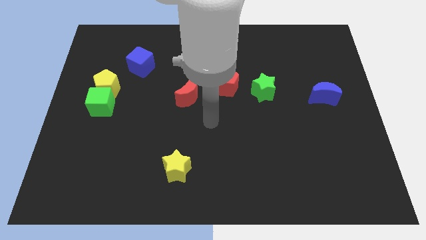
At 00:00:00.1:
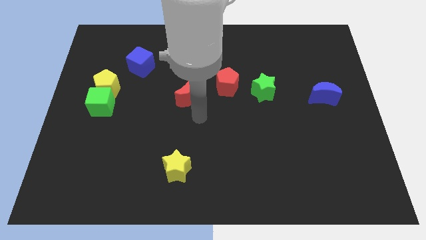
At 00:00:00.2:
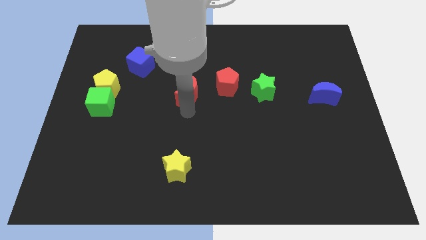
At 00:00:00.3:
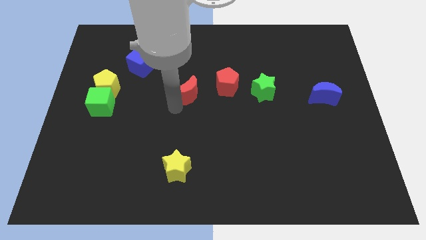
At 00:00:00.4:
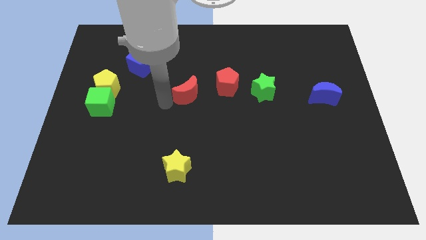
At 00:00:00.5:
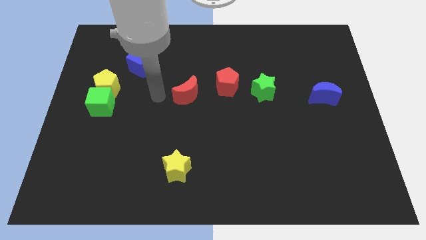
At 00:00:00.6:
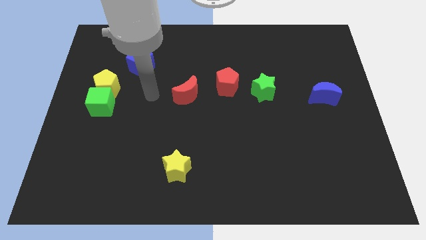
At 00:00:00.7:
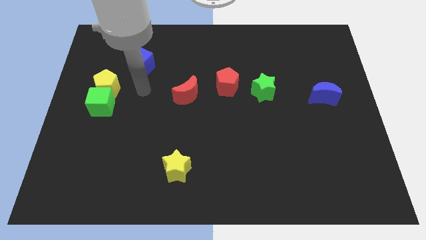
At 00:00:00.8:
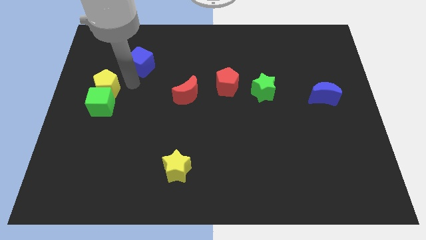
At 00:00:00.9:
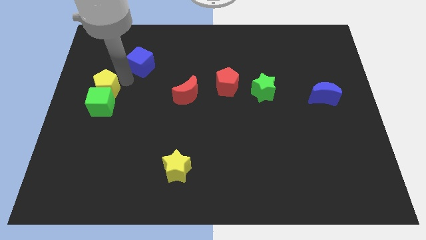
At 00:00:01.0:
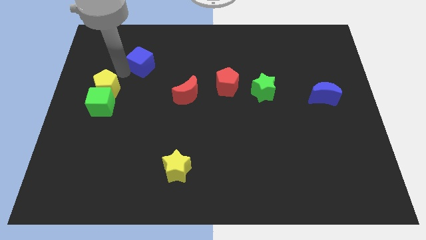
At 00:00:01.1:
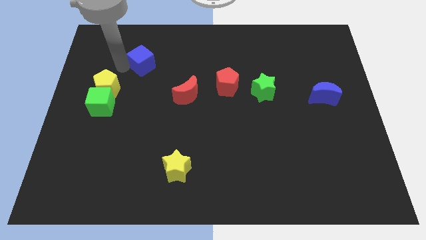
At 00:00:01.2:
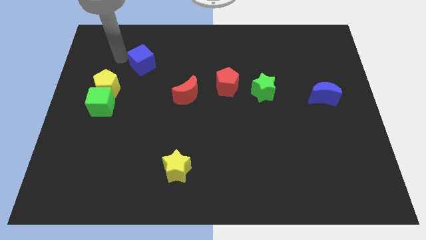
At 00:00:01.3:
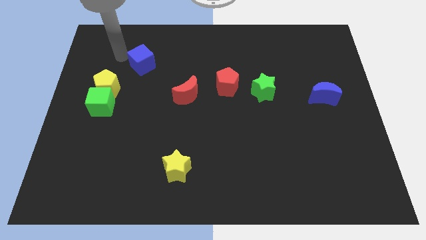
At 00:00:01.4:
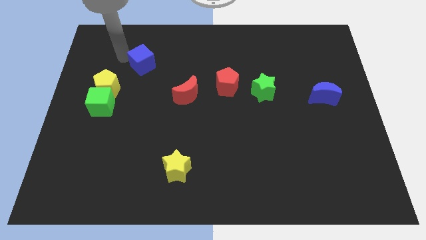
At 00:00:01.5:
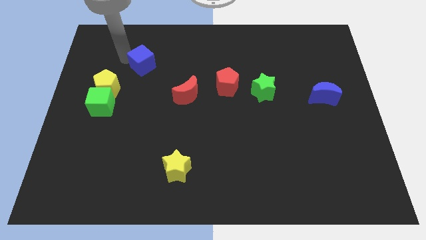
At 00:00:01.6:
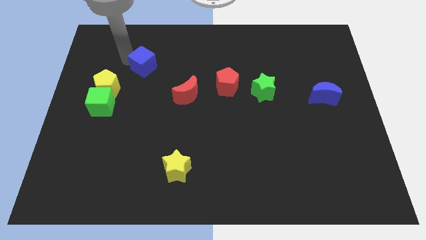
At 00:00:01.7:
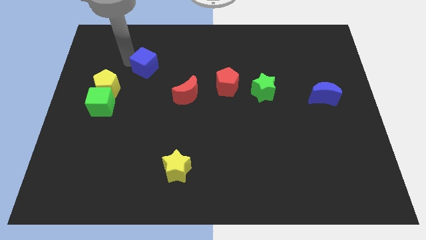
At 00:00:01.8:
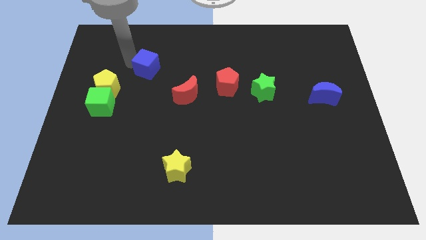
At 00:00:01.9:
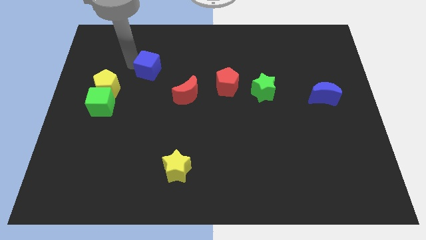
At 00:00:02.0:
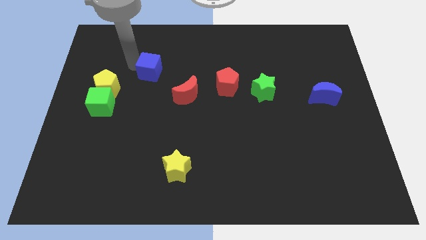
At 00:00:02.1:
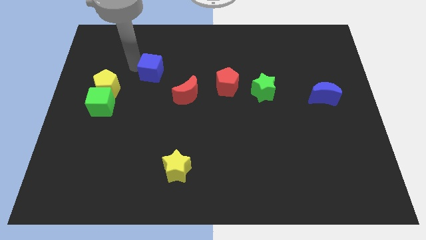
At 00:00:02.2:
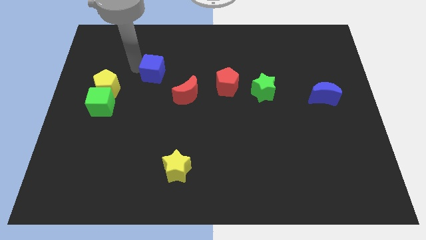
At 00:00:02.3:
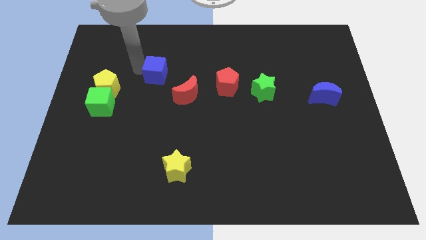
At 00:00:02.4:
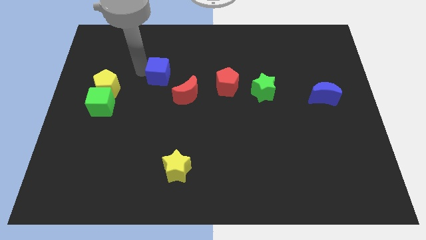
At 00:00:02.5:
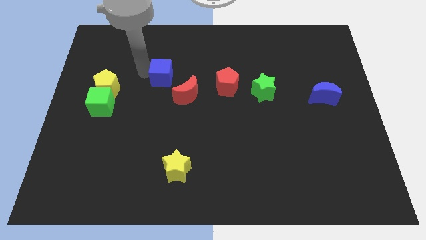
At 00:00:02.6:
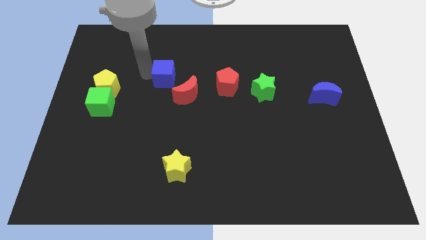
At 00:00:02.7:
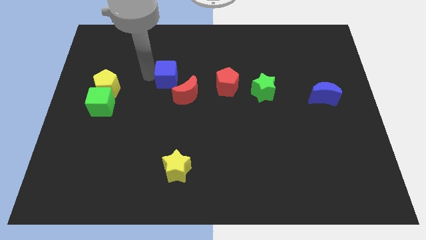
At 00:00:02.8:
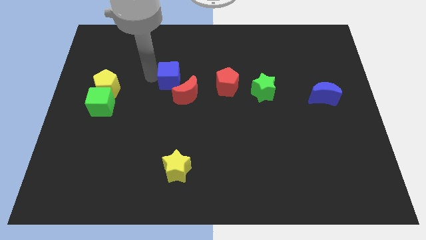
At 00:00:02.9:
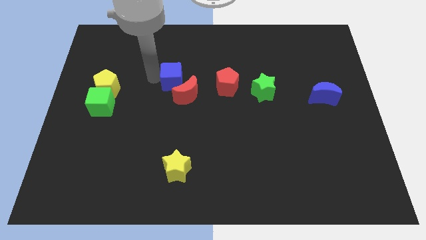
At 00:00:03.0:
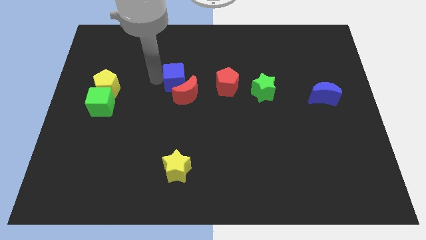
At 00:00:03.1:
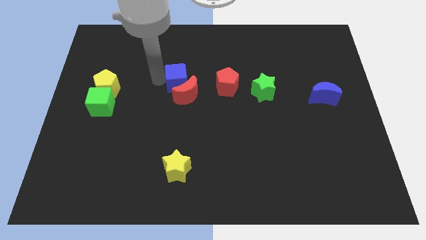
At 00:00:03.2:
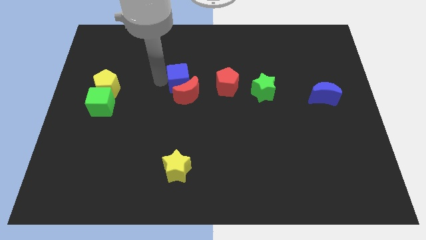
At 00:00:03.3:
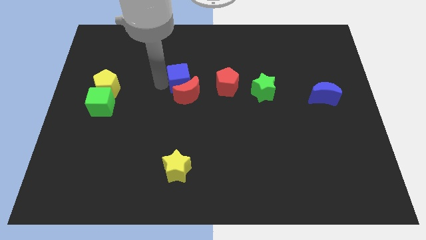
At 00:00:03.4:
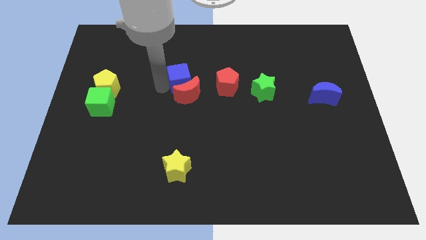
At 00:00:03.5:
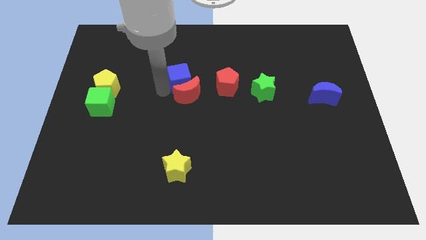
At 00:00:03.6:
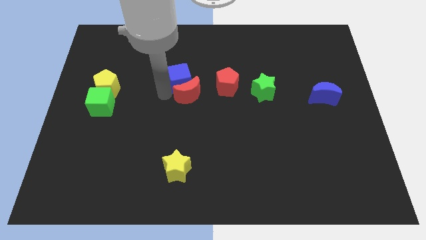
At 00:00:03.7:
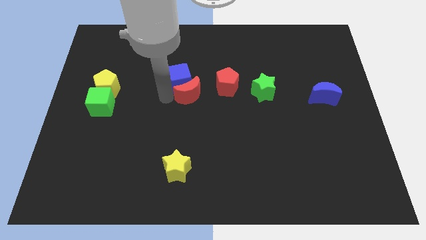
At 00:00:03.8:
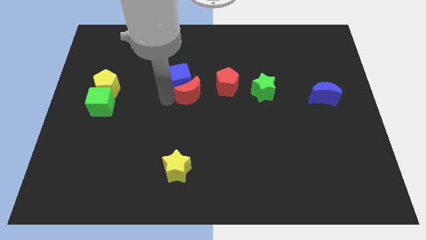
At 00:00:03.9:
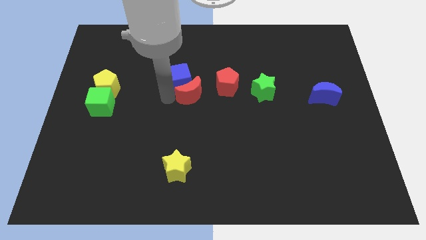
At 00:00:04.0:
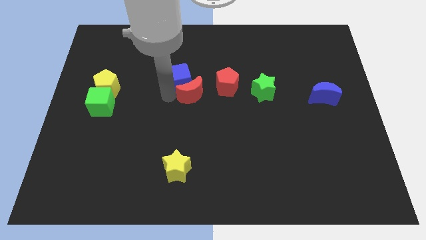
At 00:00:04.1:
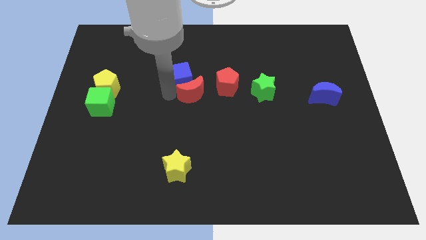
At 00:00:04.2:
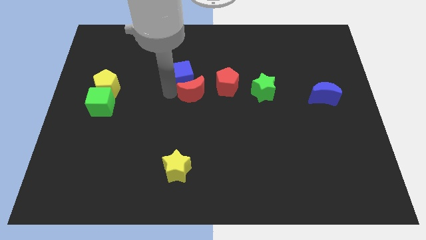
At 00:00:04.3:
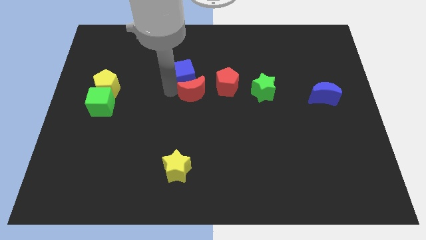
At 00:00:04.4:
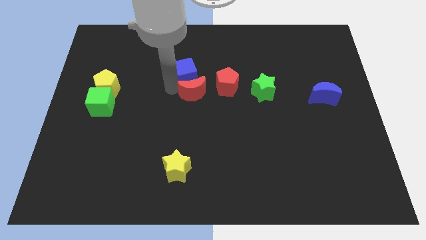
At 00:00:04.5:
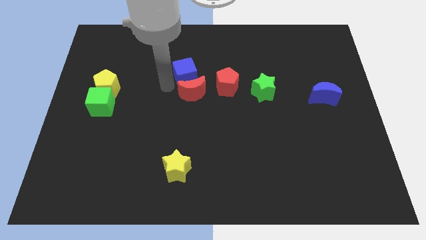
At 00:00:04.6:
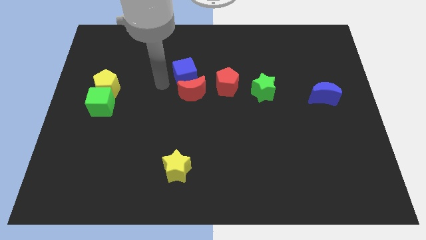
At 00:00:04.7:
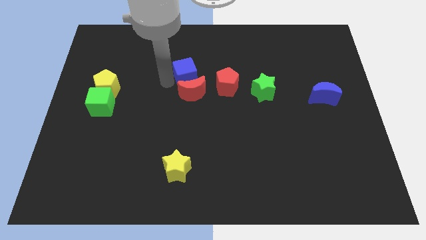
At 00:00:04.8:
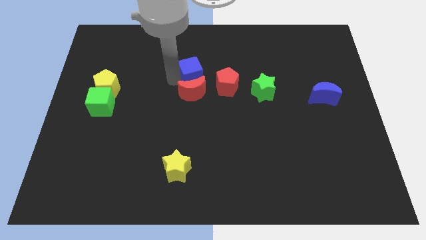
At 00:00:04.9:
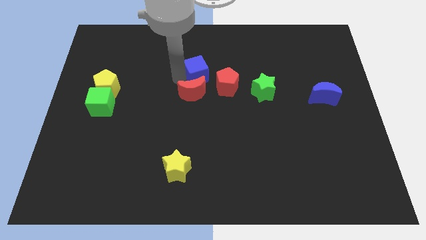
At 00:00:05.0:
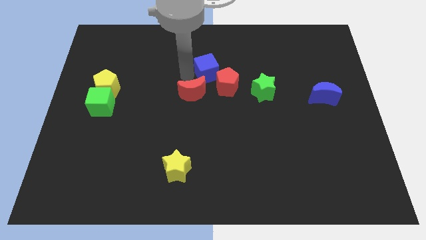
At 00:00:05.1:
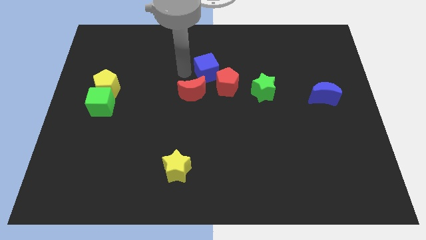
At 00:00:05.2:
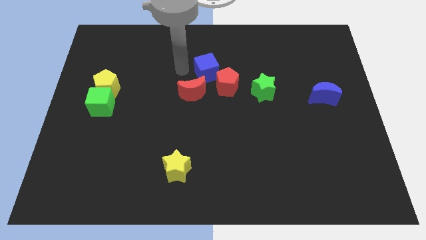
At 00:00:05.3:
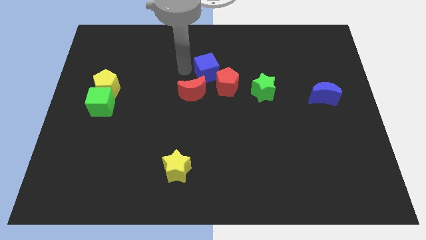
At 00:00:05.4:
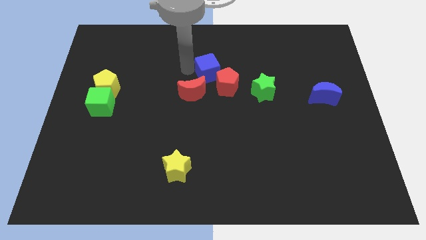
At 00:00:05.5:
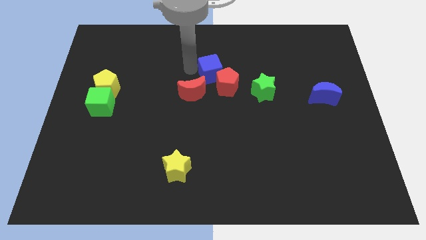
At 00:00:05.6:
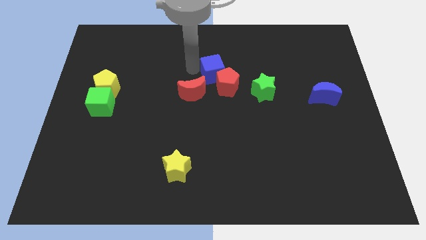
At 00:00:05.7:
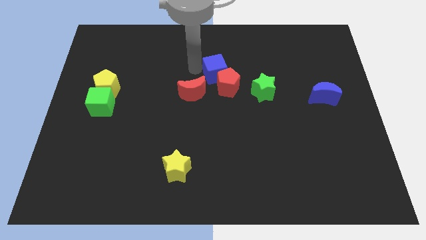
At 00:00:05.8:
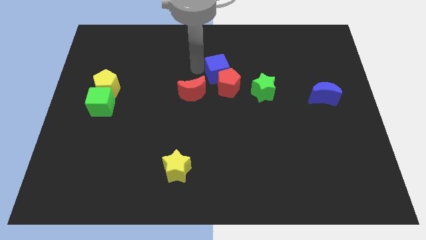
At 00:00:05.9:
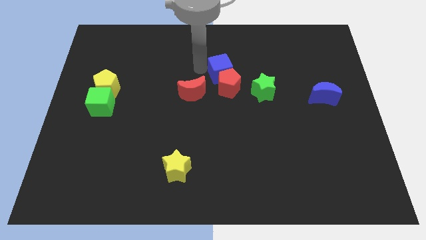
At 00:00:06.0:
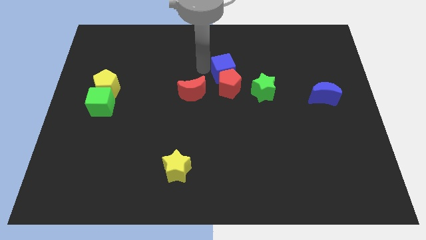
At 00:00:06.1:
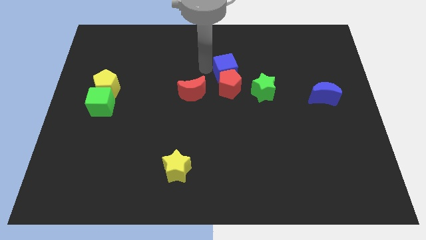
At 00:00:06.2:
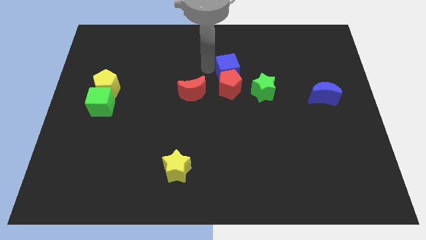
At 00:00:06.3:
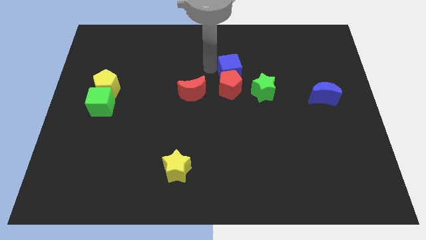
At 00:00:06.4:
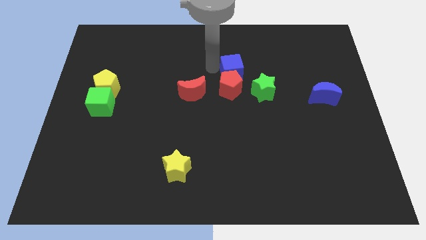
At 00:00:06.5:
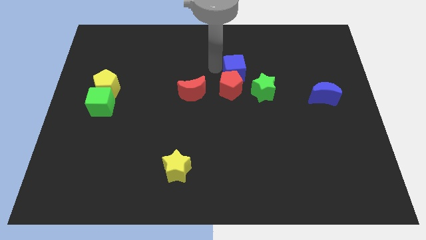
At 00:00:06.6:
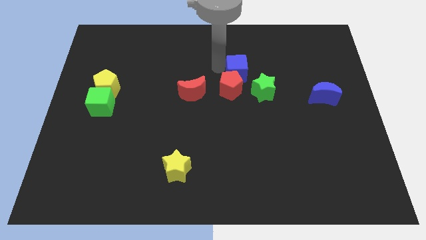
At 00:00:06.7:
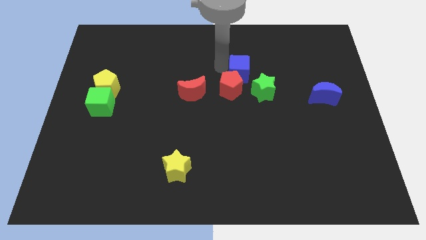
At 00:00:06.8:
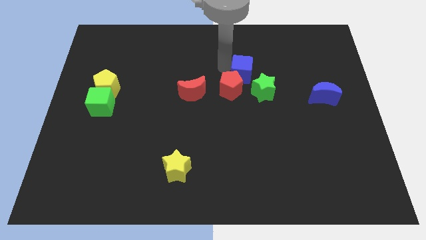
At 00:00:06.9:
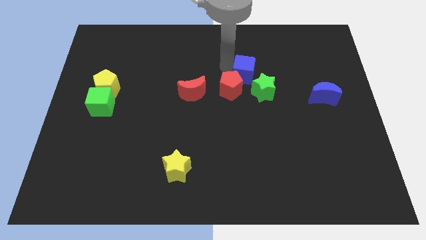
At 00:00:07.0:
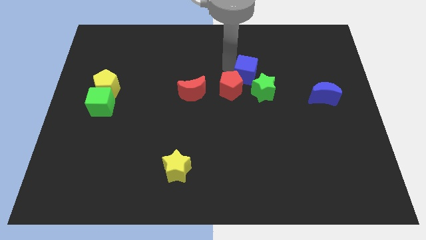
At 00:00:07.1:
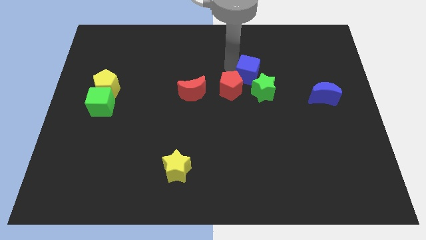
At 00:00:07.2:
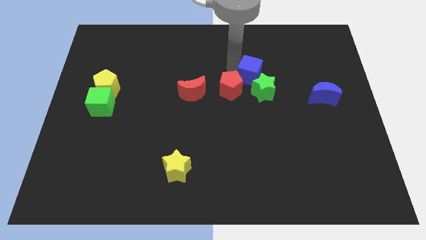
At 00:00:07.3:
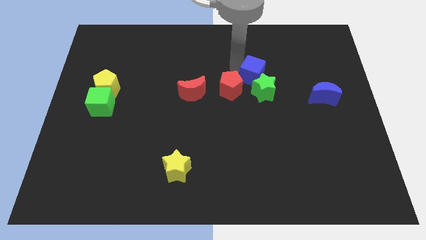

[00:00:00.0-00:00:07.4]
put the blue cube next to the green star
